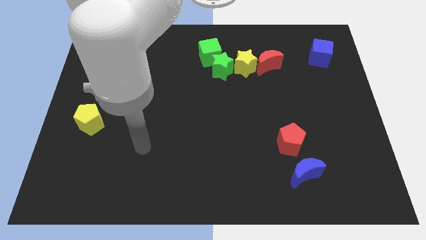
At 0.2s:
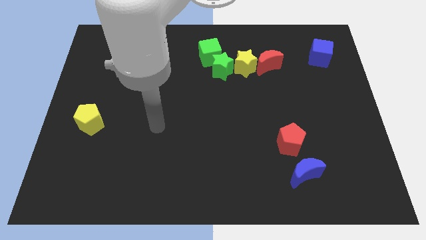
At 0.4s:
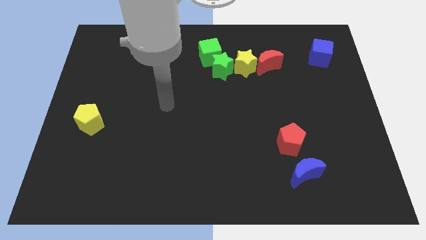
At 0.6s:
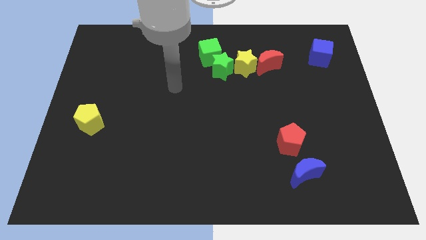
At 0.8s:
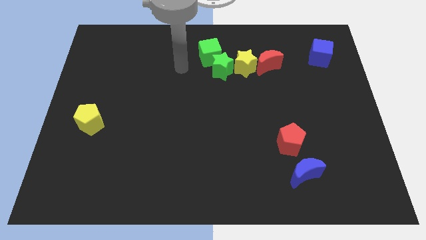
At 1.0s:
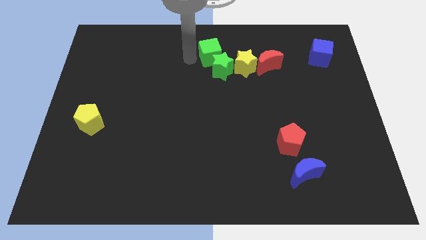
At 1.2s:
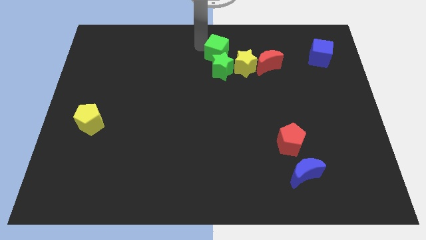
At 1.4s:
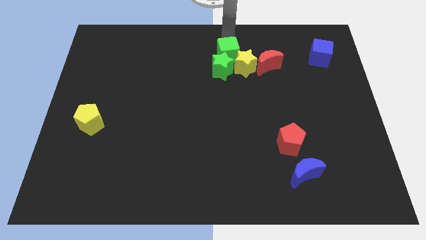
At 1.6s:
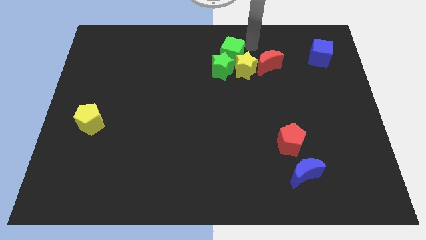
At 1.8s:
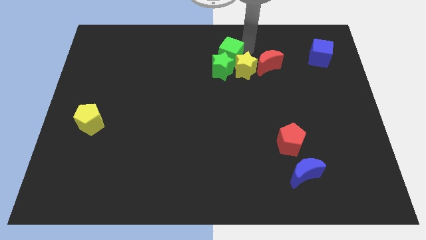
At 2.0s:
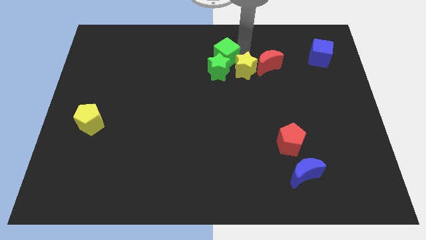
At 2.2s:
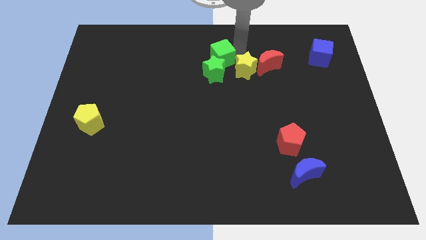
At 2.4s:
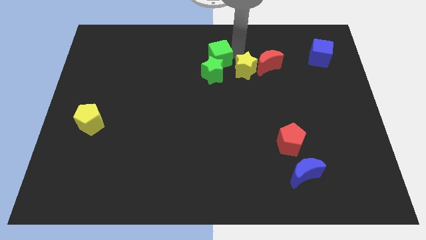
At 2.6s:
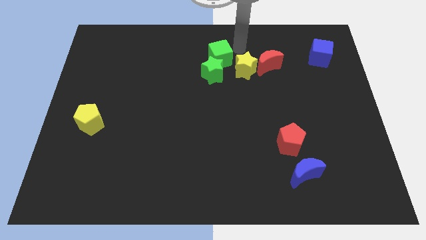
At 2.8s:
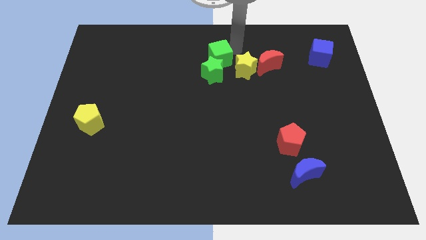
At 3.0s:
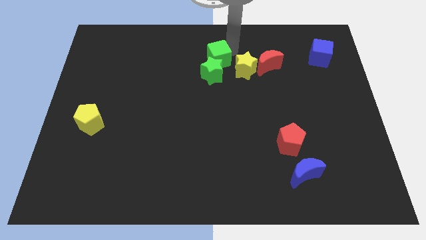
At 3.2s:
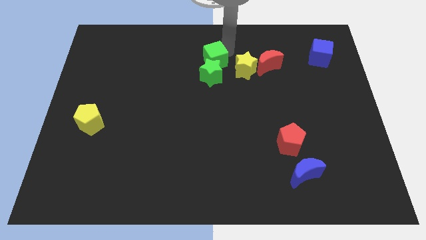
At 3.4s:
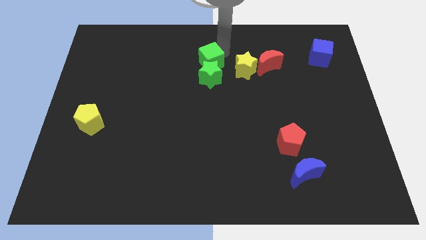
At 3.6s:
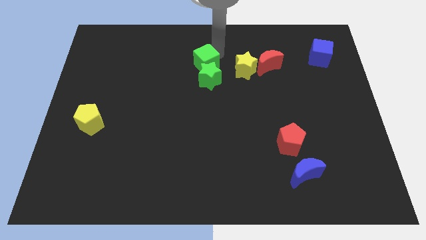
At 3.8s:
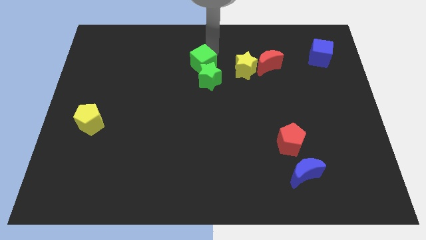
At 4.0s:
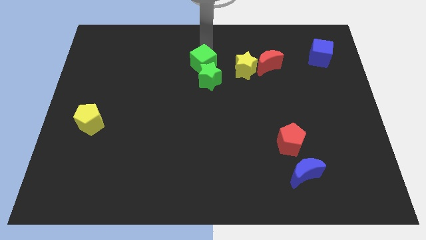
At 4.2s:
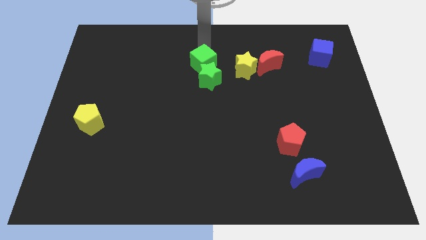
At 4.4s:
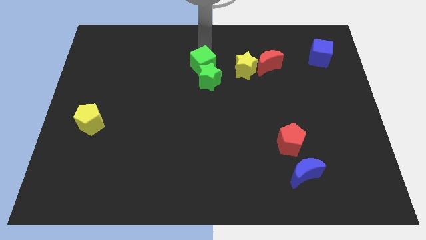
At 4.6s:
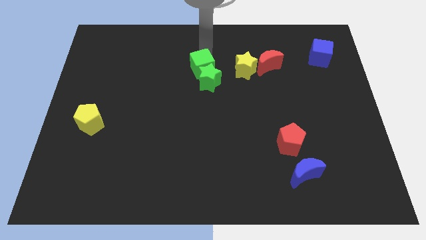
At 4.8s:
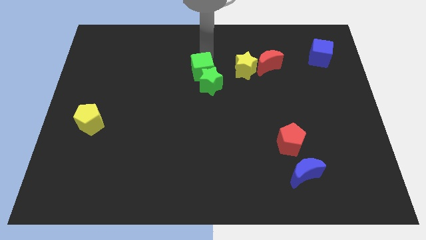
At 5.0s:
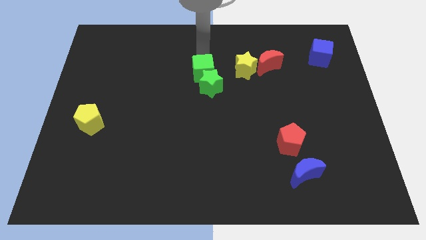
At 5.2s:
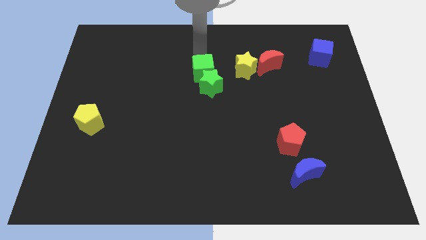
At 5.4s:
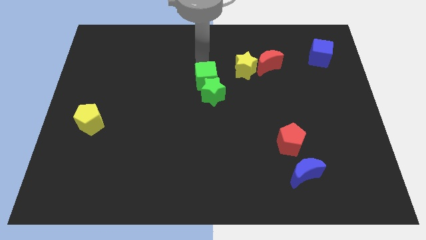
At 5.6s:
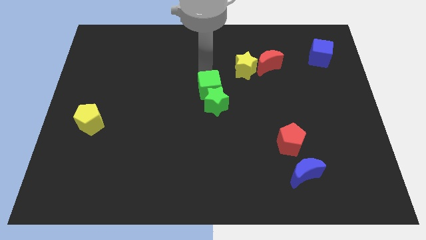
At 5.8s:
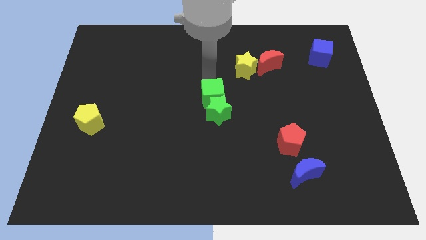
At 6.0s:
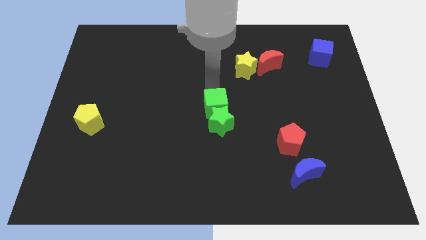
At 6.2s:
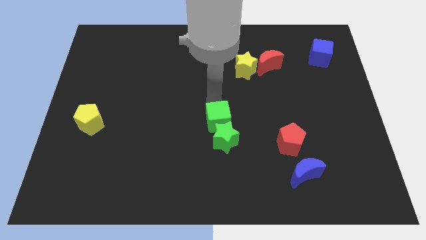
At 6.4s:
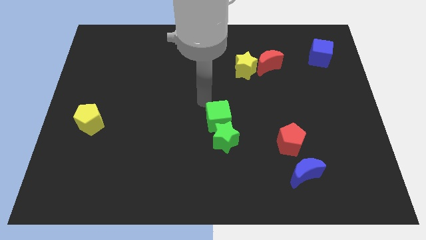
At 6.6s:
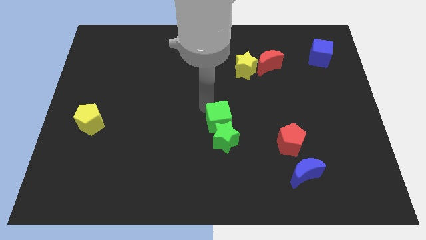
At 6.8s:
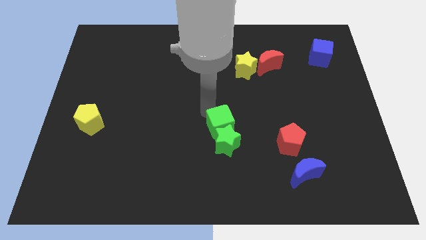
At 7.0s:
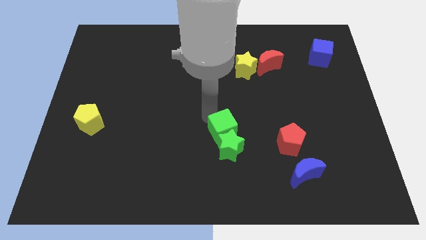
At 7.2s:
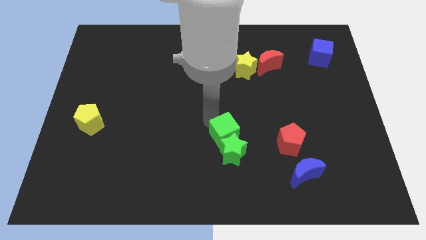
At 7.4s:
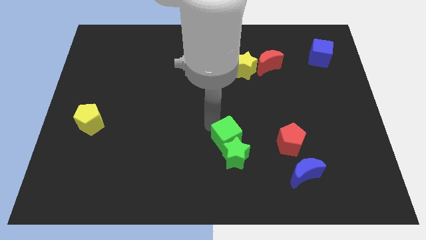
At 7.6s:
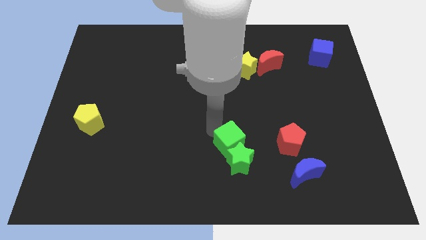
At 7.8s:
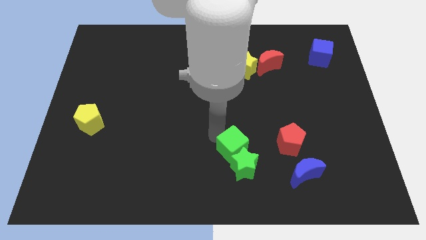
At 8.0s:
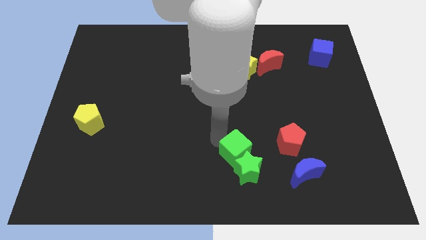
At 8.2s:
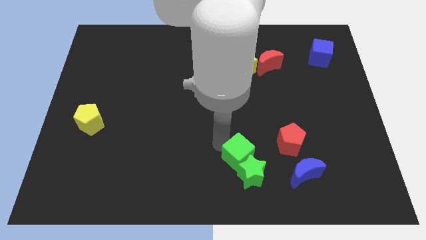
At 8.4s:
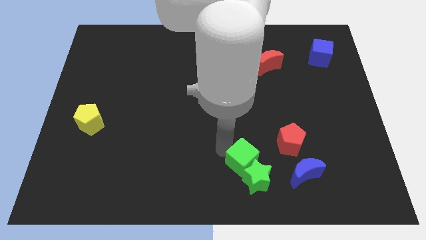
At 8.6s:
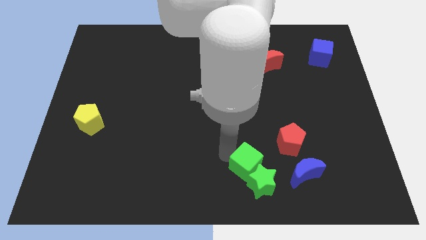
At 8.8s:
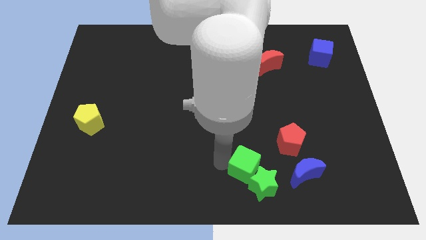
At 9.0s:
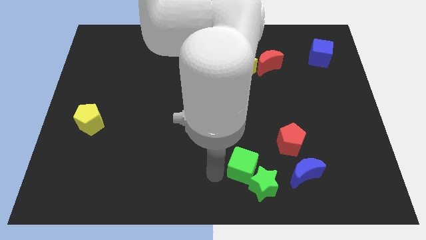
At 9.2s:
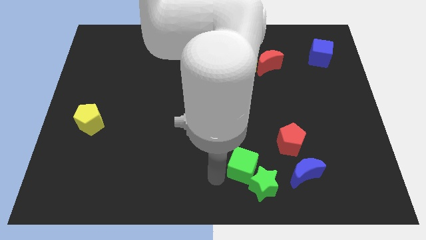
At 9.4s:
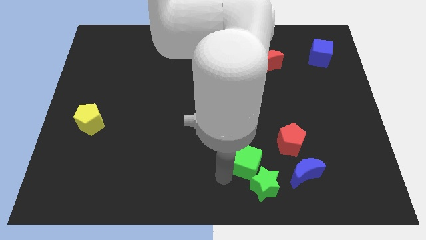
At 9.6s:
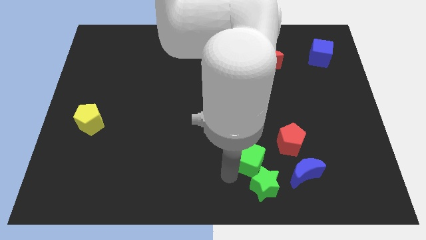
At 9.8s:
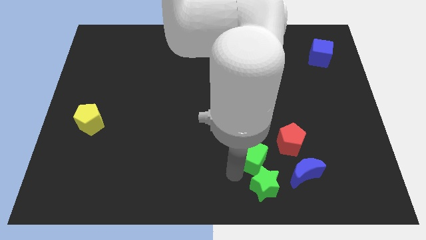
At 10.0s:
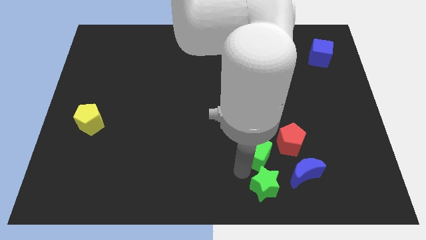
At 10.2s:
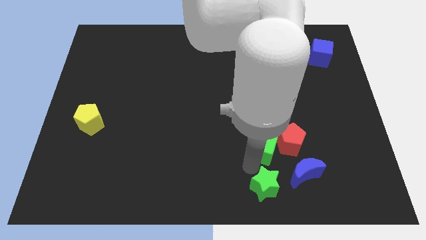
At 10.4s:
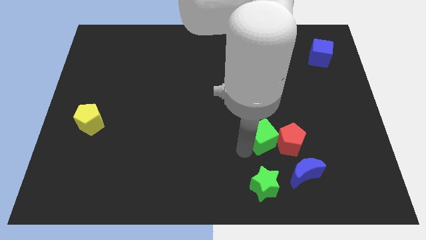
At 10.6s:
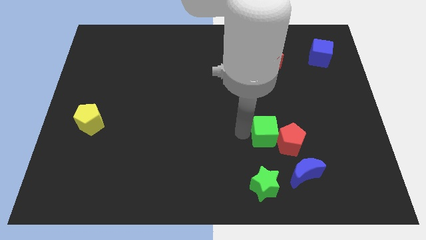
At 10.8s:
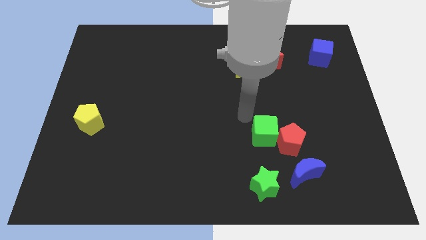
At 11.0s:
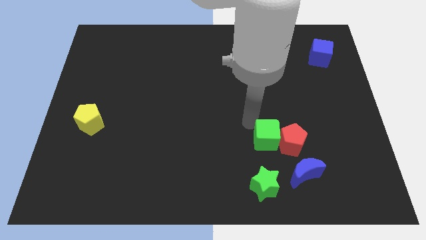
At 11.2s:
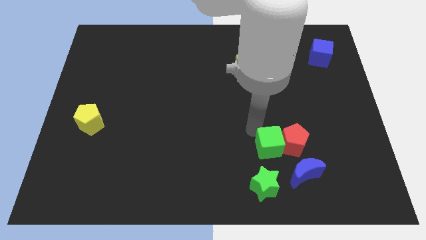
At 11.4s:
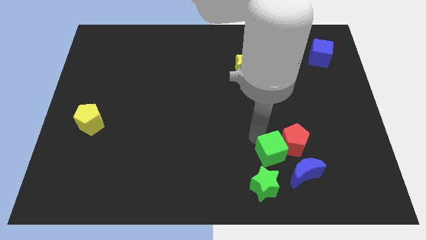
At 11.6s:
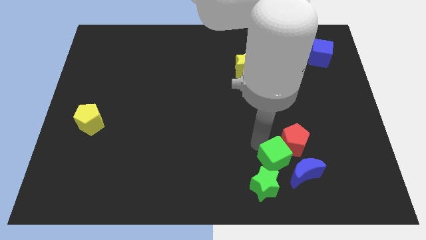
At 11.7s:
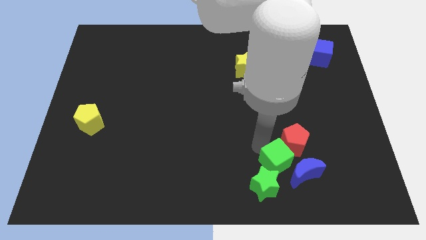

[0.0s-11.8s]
push the green cube close to the blue moon

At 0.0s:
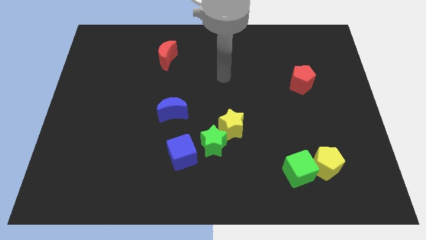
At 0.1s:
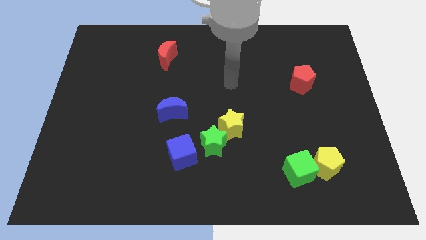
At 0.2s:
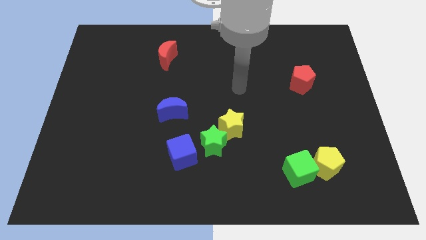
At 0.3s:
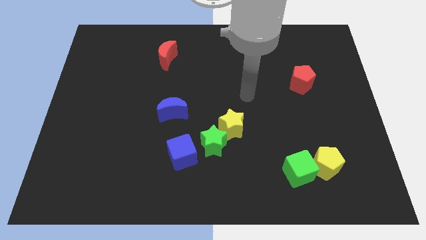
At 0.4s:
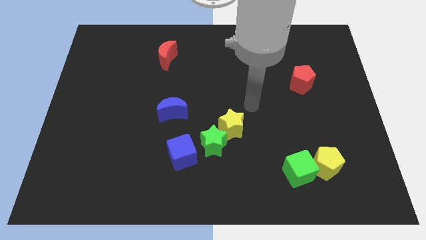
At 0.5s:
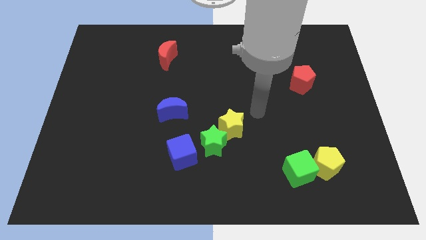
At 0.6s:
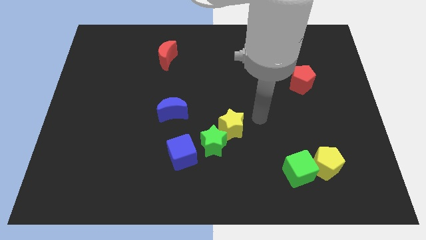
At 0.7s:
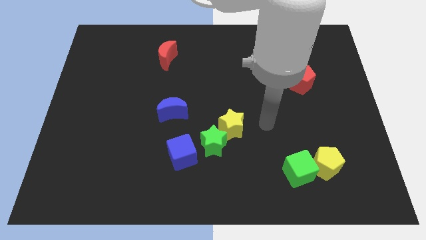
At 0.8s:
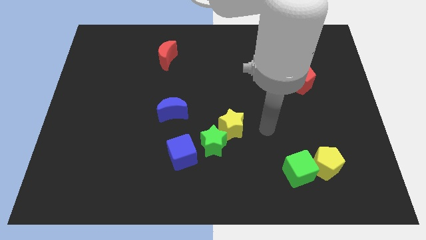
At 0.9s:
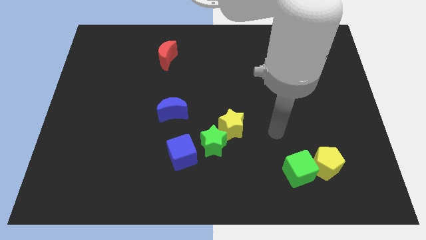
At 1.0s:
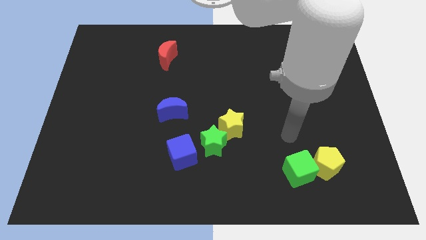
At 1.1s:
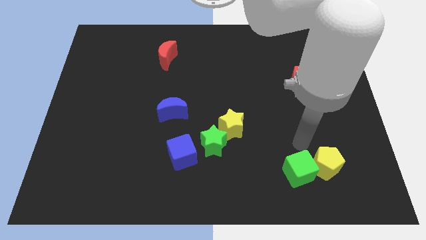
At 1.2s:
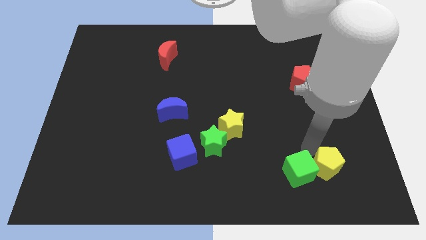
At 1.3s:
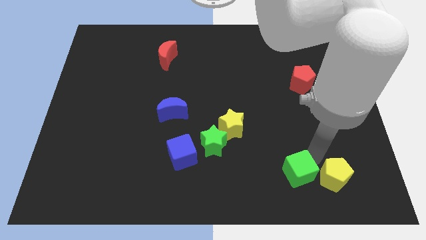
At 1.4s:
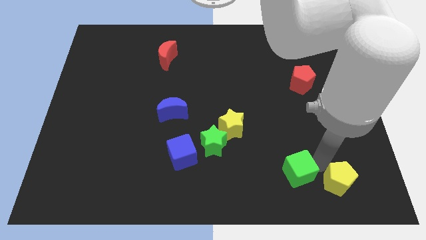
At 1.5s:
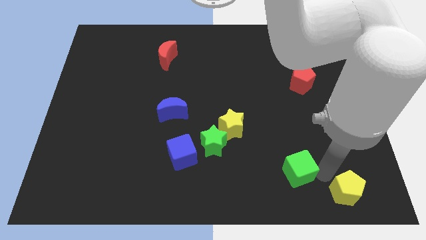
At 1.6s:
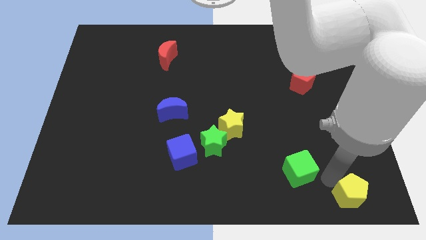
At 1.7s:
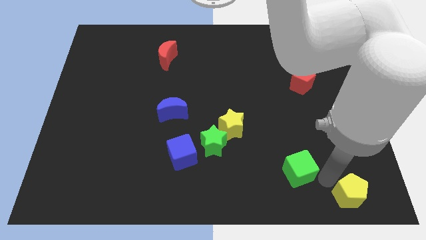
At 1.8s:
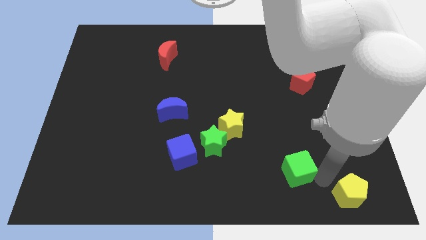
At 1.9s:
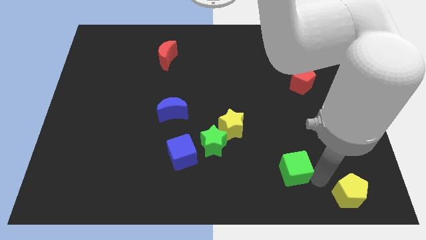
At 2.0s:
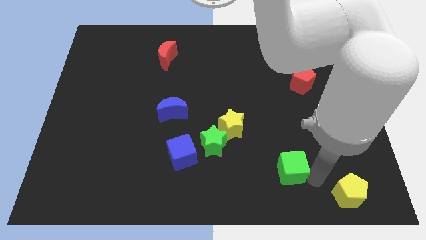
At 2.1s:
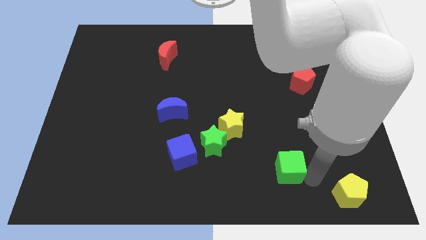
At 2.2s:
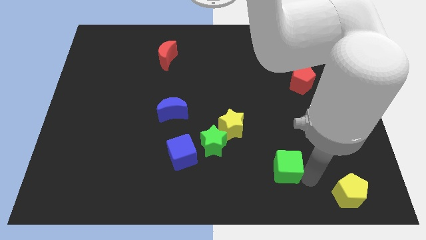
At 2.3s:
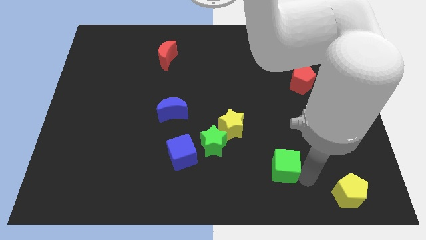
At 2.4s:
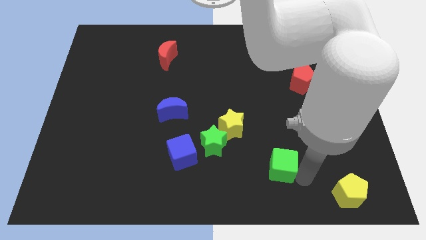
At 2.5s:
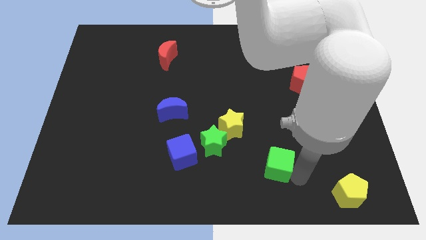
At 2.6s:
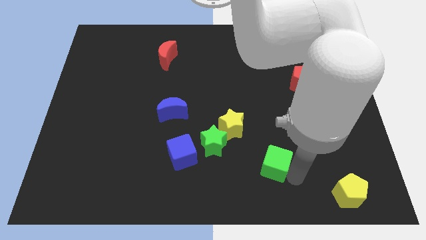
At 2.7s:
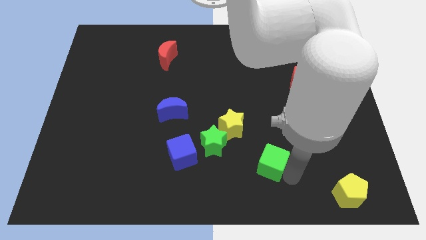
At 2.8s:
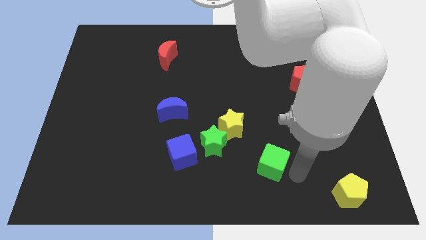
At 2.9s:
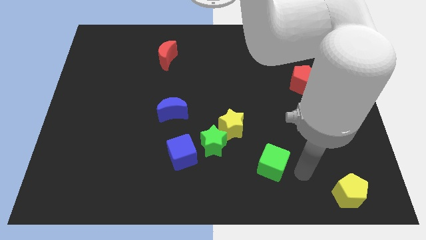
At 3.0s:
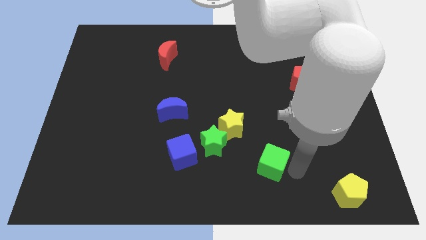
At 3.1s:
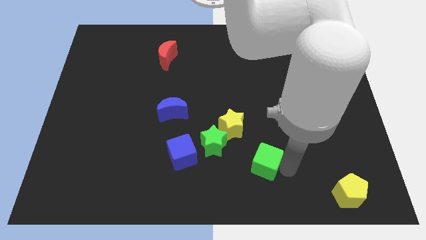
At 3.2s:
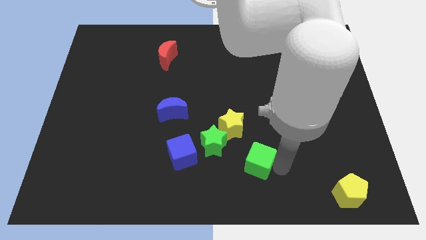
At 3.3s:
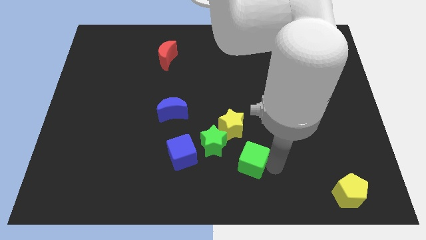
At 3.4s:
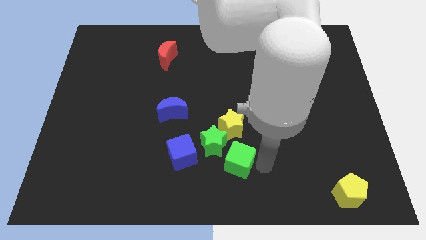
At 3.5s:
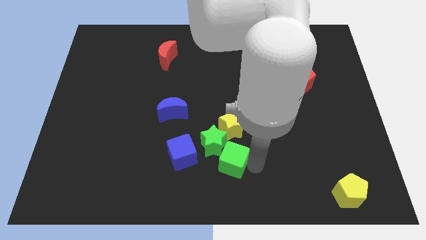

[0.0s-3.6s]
push the green cube towards the green star
